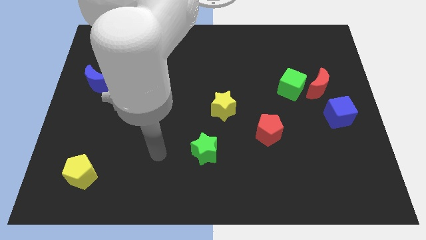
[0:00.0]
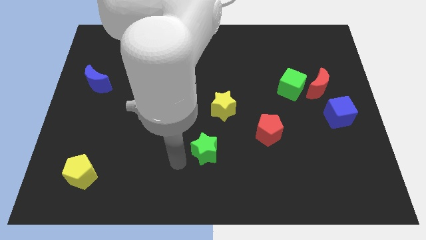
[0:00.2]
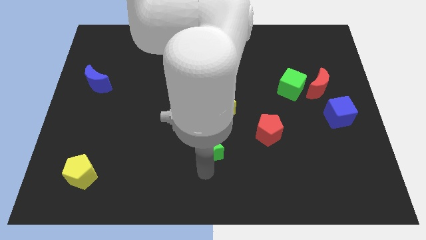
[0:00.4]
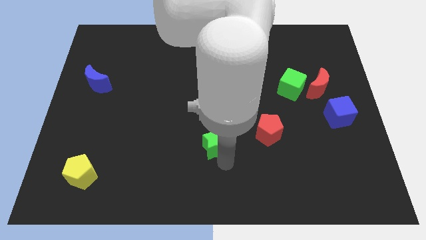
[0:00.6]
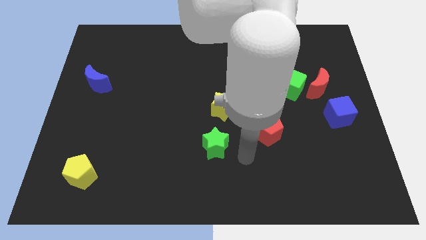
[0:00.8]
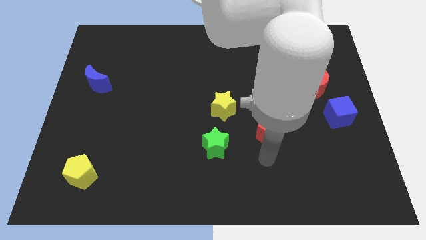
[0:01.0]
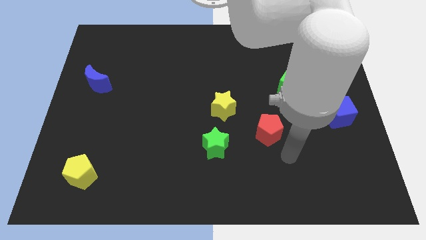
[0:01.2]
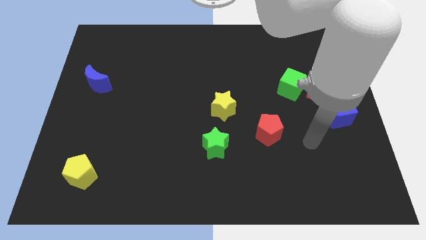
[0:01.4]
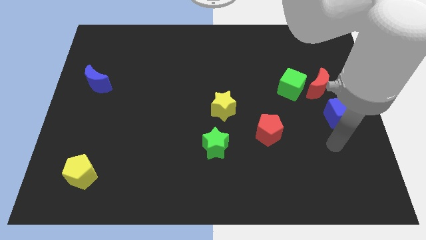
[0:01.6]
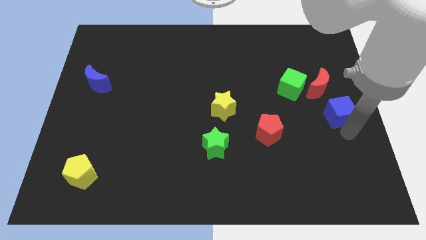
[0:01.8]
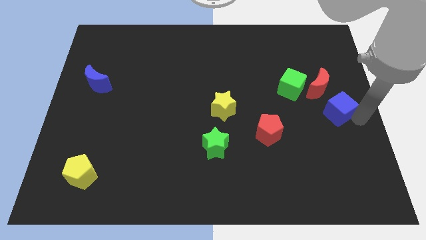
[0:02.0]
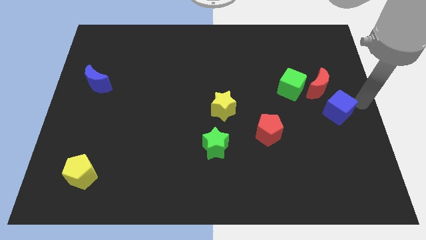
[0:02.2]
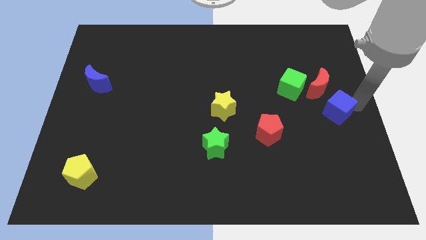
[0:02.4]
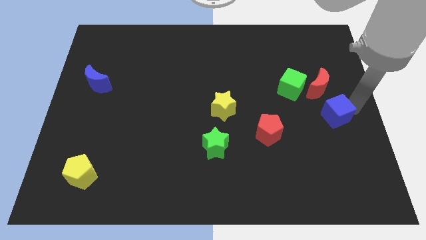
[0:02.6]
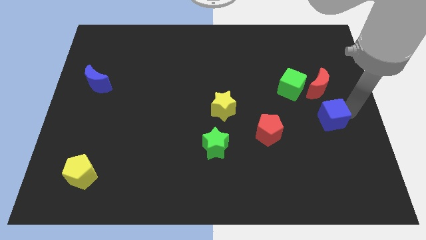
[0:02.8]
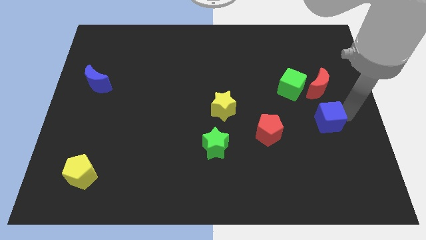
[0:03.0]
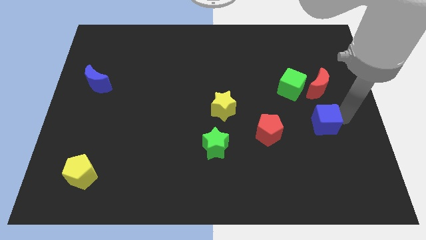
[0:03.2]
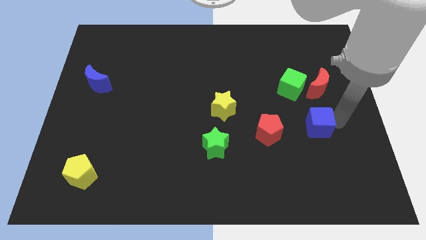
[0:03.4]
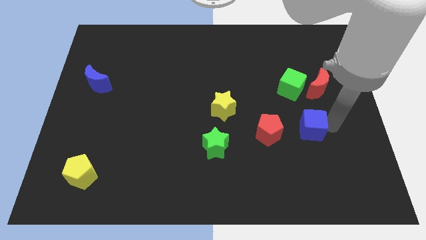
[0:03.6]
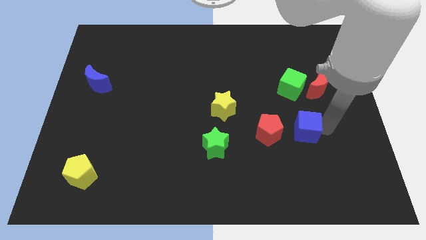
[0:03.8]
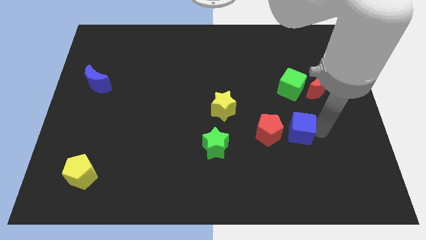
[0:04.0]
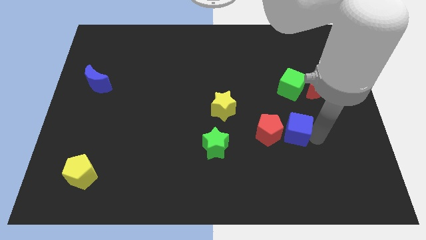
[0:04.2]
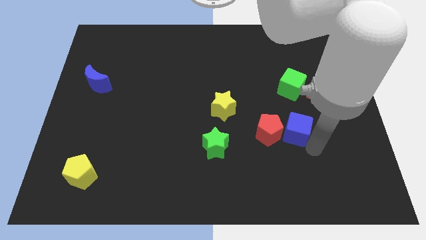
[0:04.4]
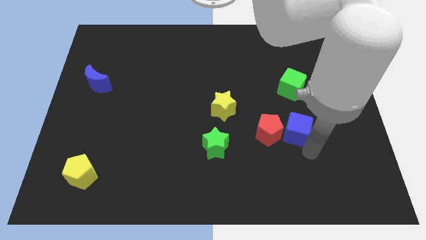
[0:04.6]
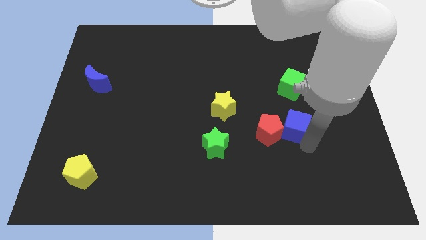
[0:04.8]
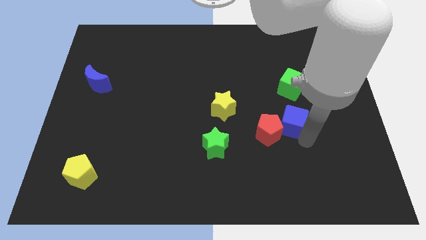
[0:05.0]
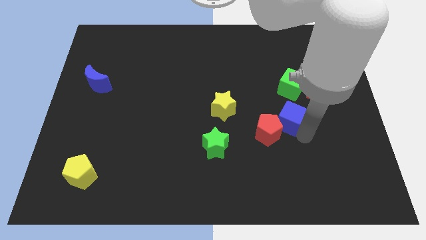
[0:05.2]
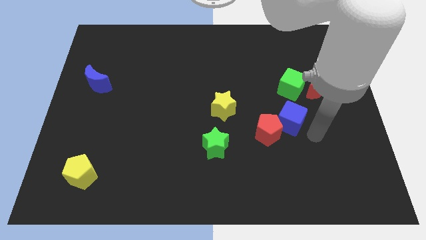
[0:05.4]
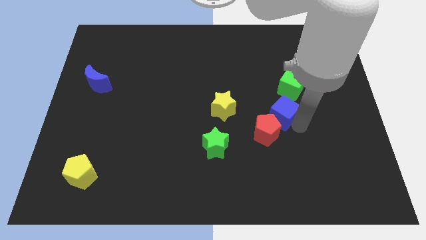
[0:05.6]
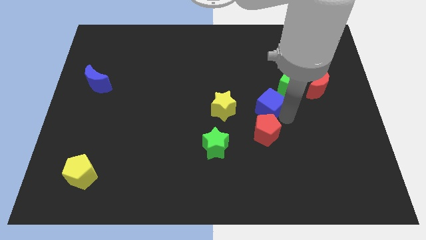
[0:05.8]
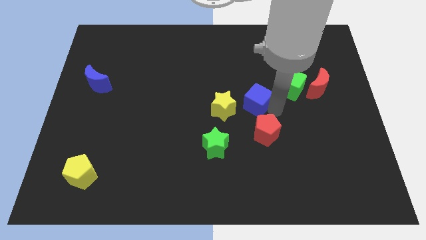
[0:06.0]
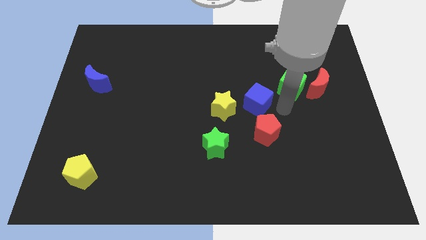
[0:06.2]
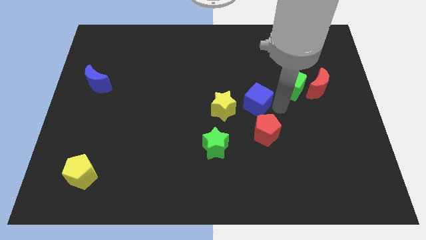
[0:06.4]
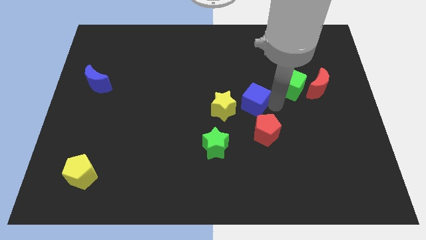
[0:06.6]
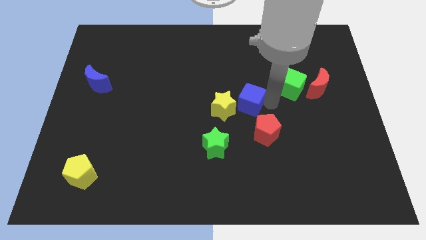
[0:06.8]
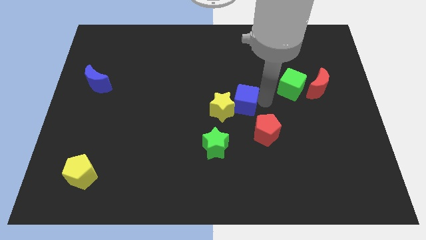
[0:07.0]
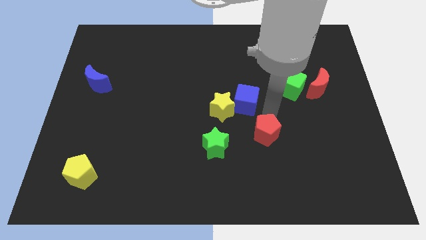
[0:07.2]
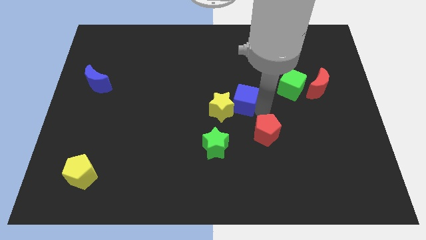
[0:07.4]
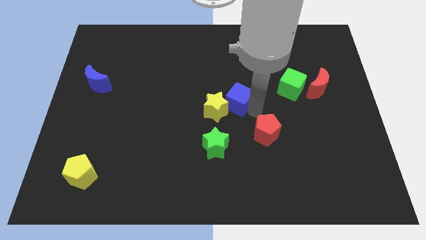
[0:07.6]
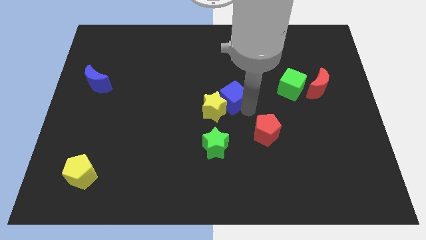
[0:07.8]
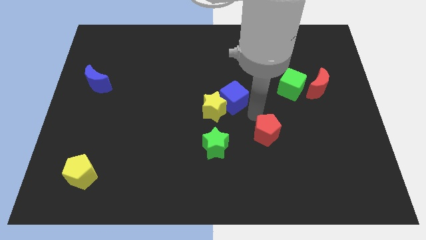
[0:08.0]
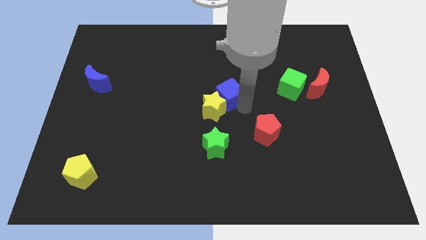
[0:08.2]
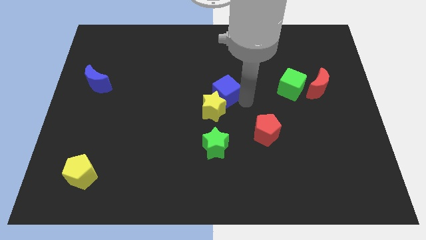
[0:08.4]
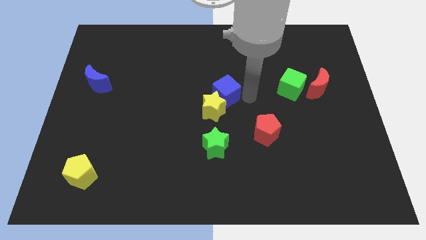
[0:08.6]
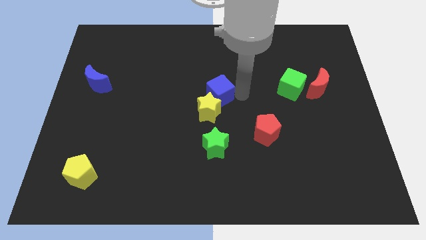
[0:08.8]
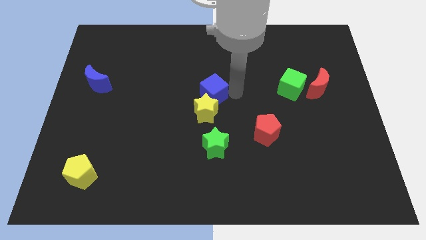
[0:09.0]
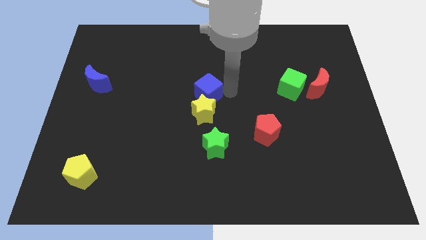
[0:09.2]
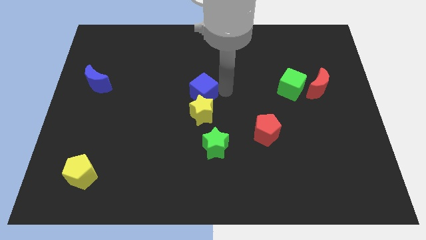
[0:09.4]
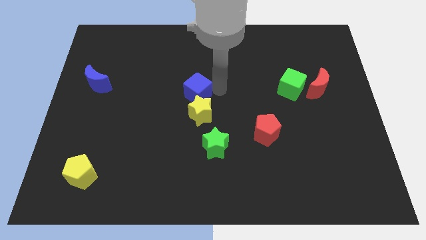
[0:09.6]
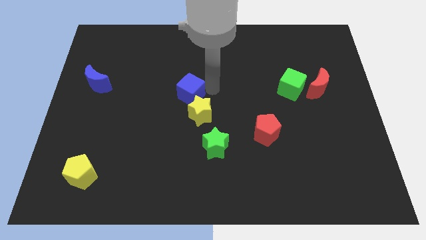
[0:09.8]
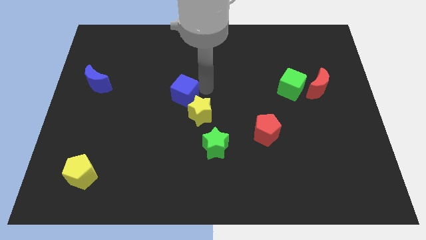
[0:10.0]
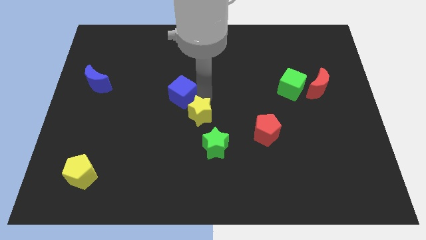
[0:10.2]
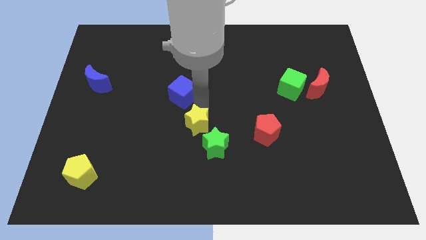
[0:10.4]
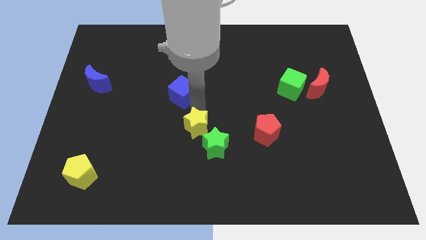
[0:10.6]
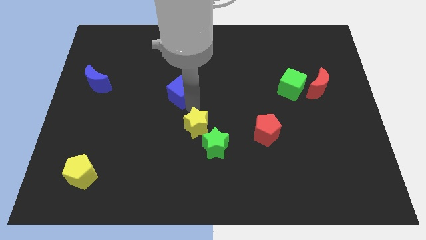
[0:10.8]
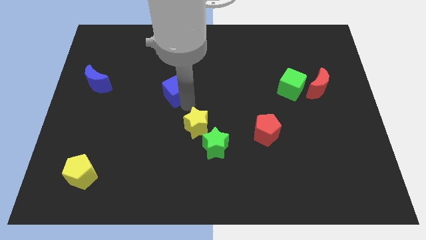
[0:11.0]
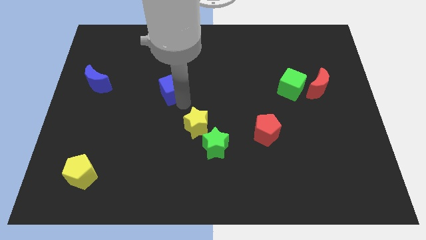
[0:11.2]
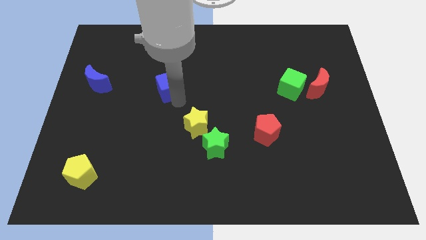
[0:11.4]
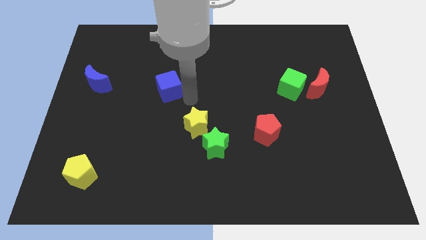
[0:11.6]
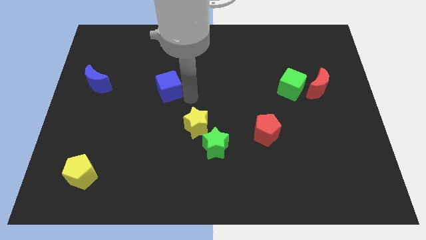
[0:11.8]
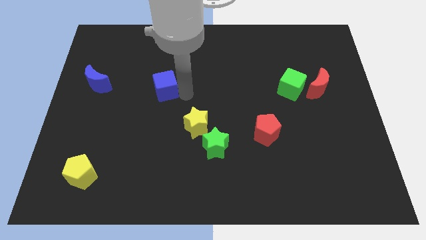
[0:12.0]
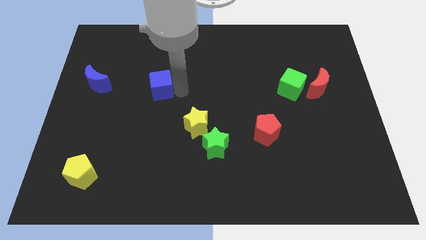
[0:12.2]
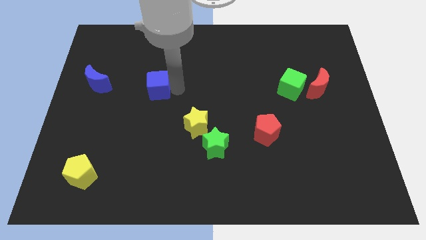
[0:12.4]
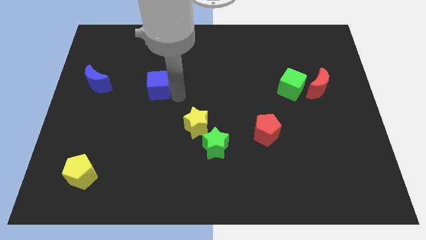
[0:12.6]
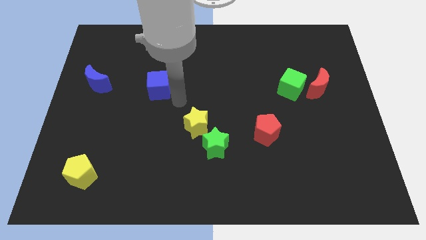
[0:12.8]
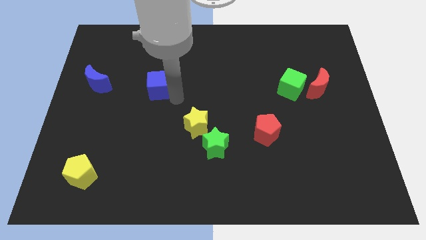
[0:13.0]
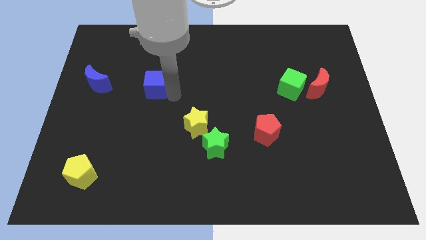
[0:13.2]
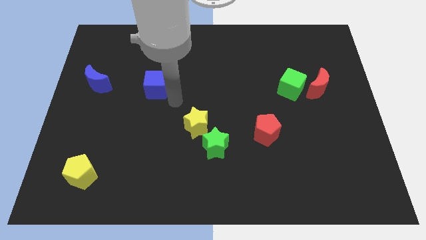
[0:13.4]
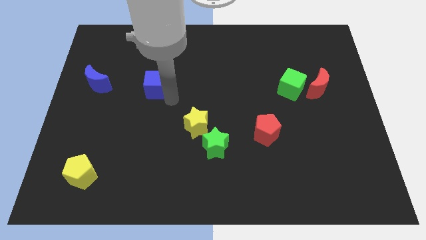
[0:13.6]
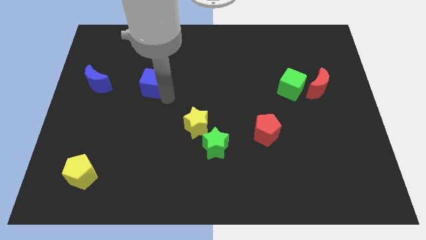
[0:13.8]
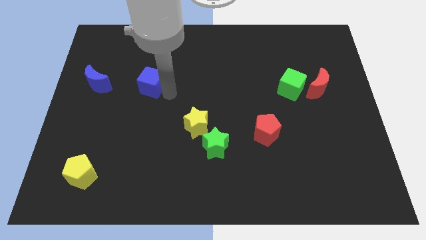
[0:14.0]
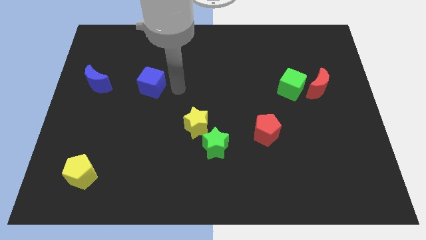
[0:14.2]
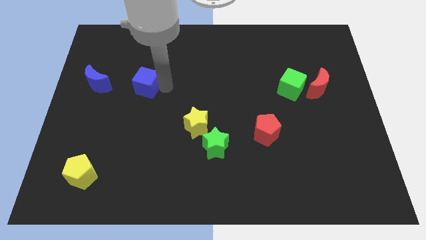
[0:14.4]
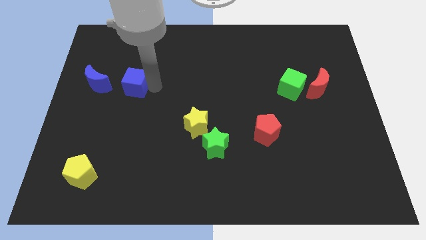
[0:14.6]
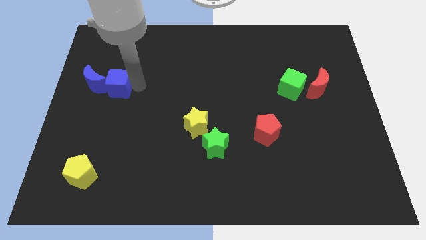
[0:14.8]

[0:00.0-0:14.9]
slide the blue cube to the blue moon

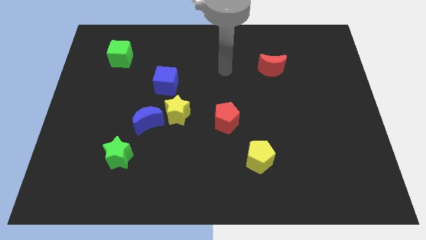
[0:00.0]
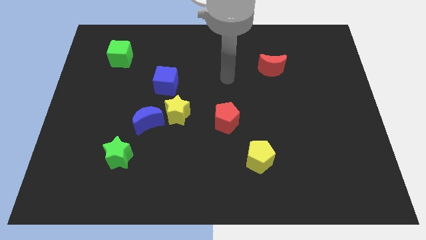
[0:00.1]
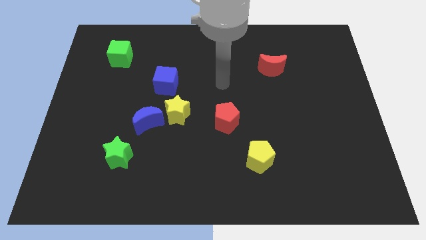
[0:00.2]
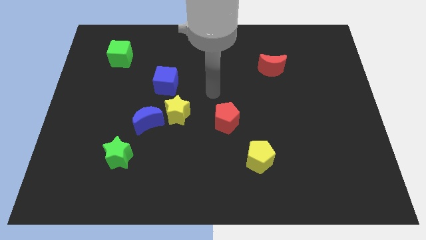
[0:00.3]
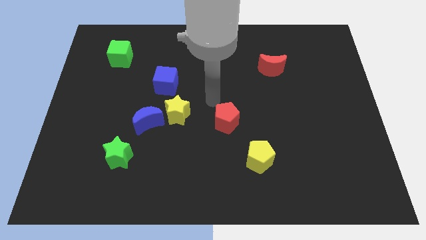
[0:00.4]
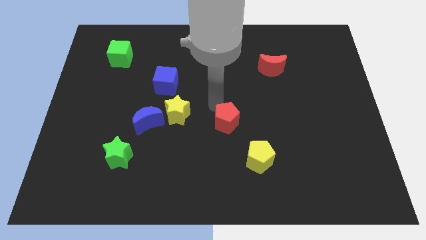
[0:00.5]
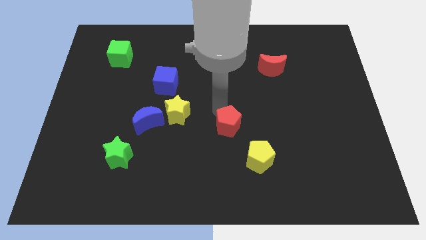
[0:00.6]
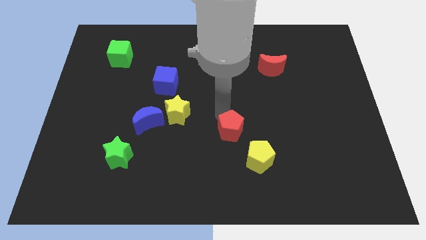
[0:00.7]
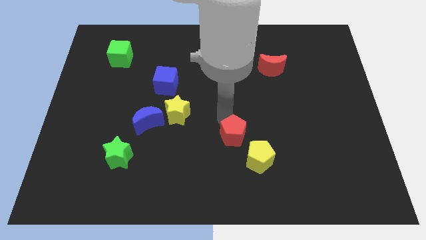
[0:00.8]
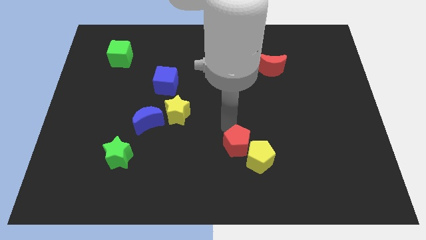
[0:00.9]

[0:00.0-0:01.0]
put the red pentagon next to the yellow pentagon
